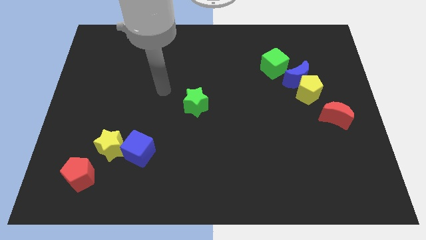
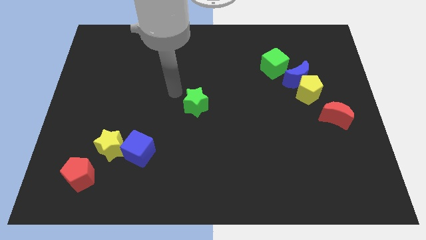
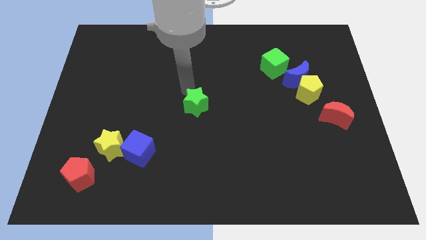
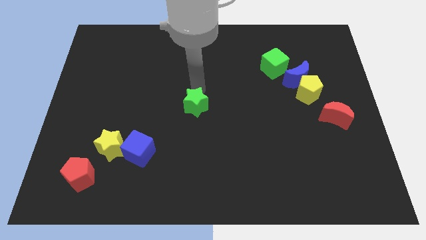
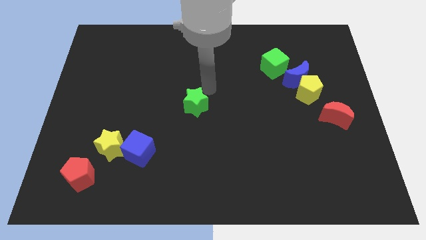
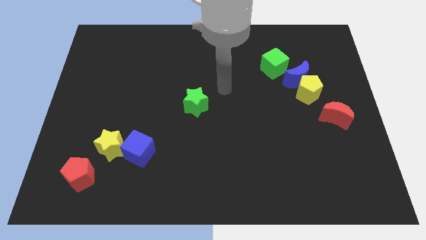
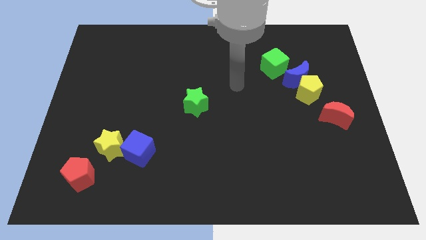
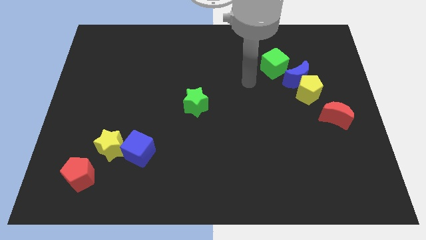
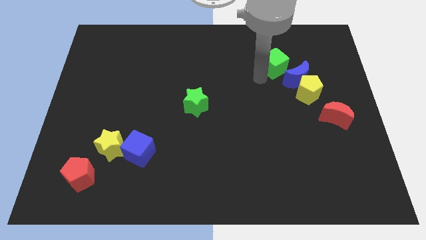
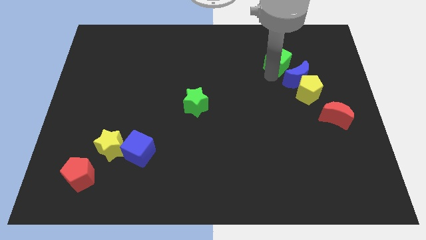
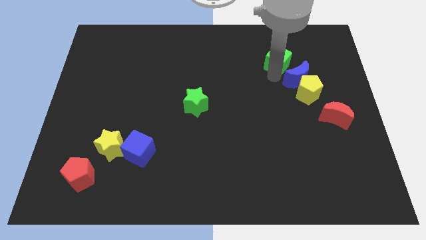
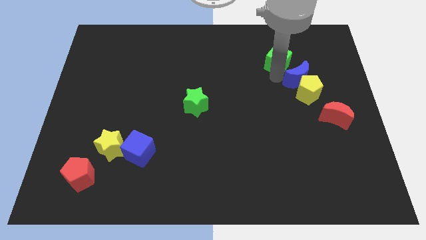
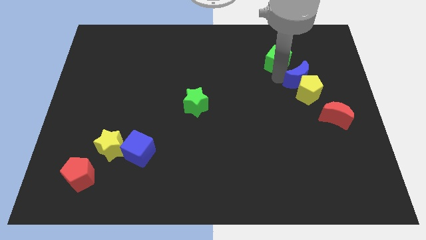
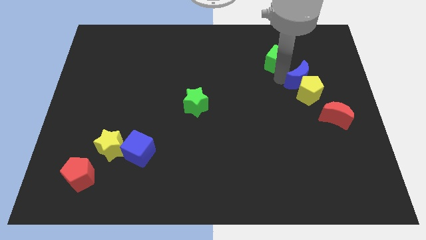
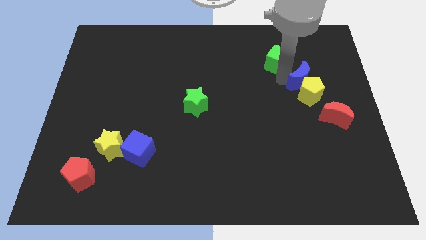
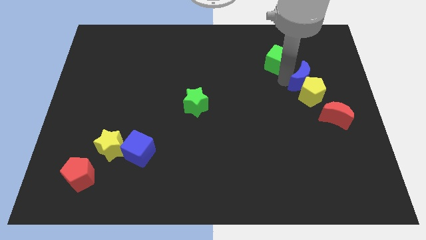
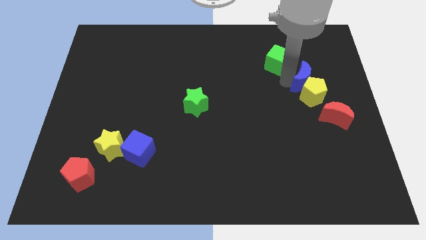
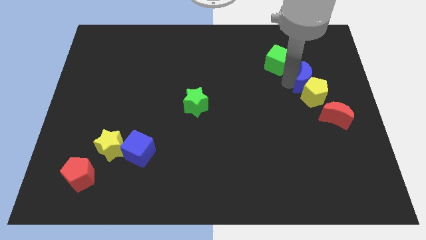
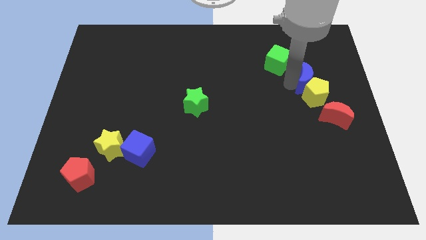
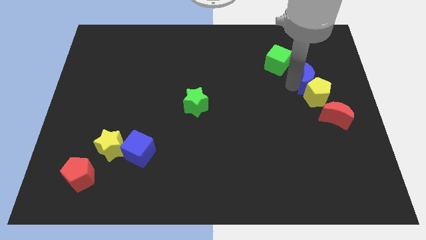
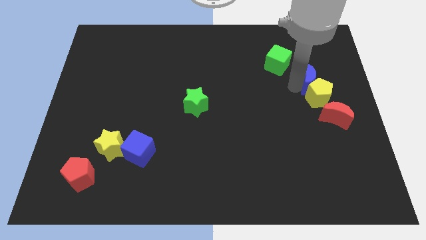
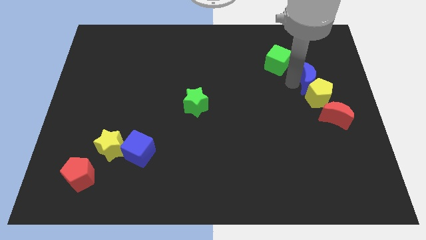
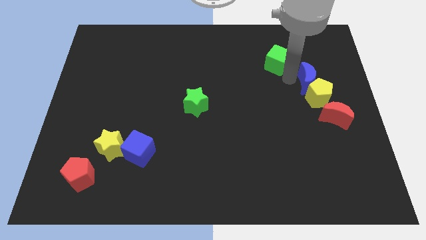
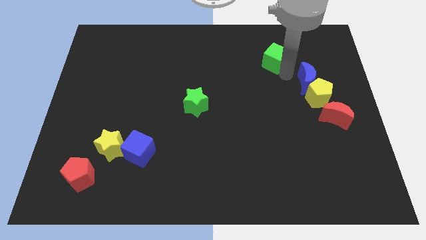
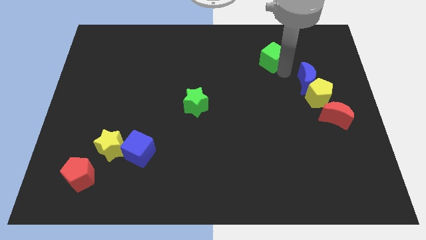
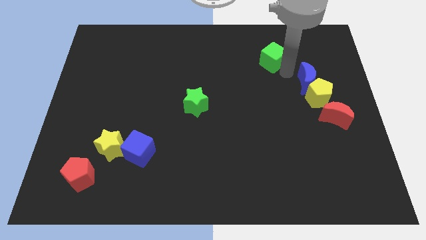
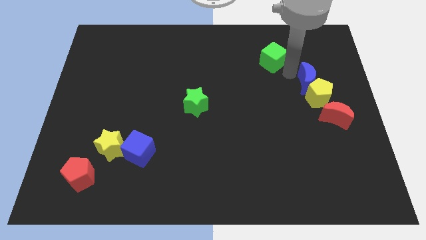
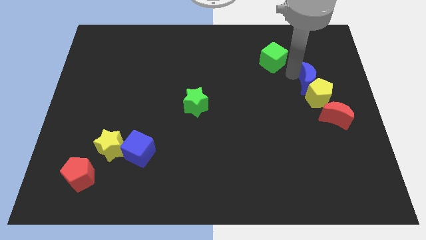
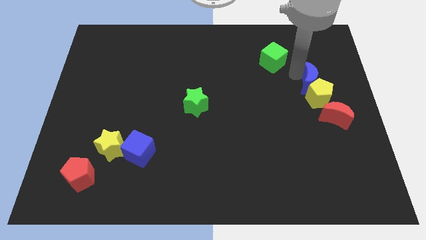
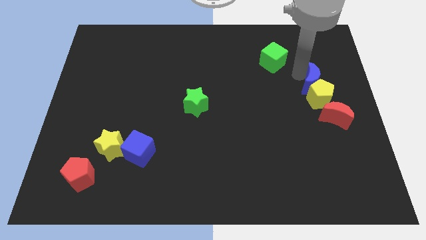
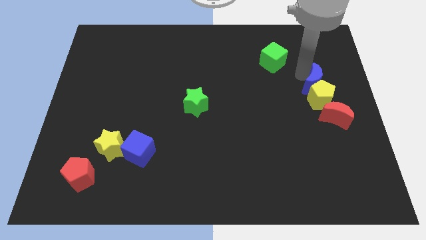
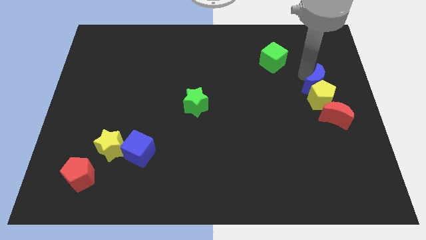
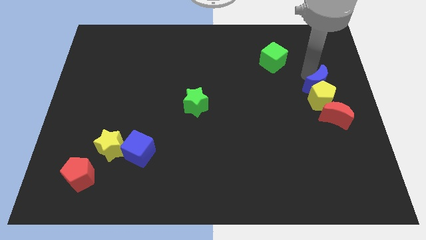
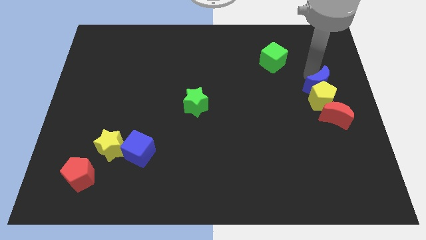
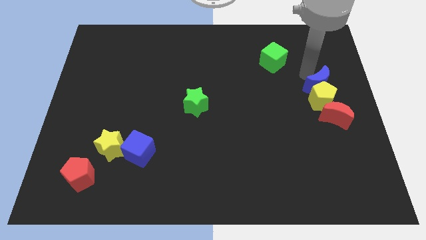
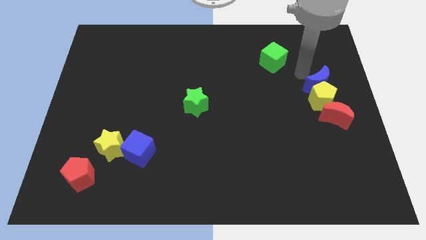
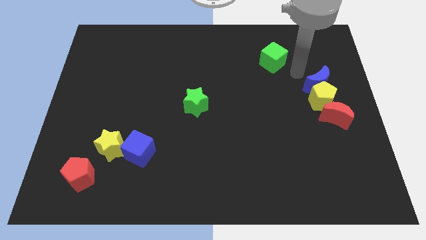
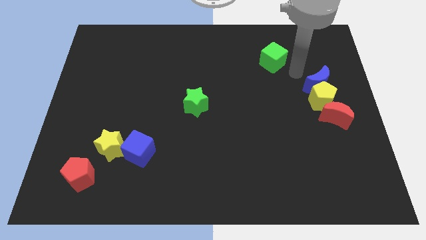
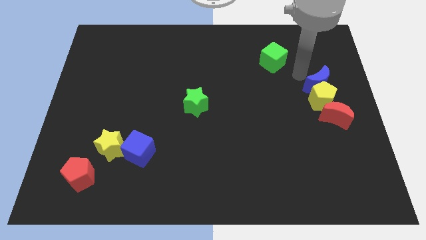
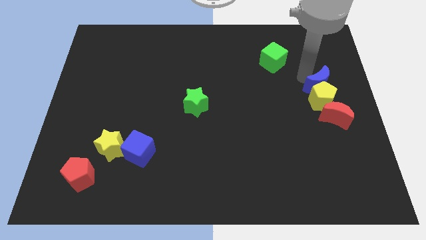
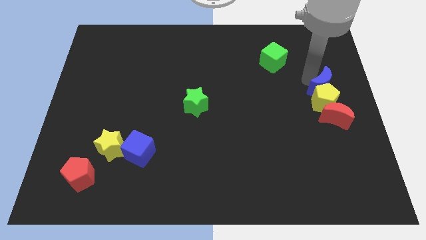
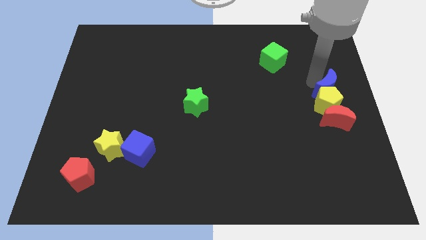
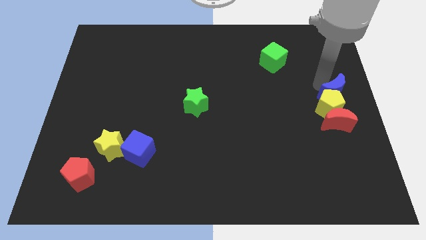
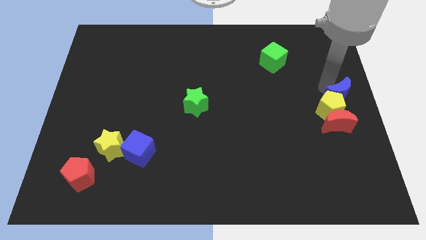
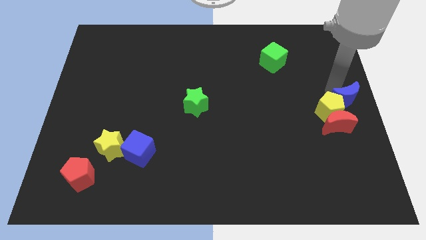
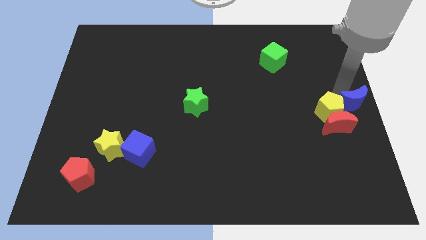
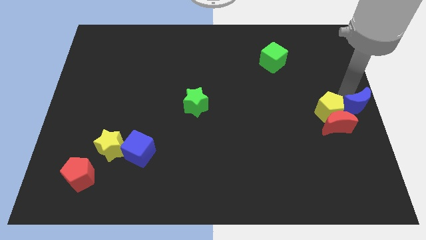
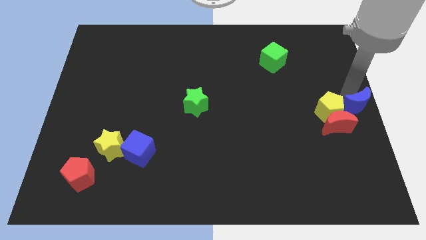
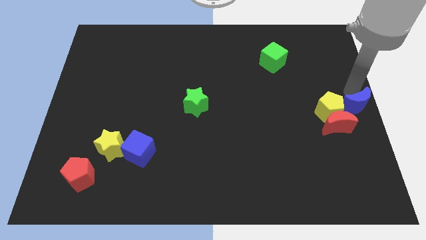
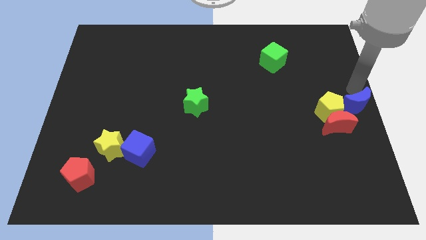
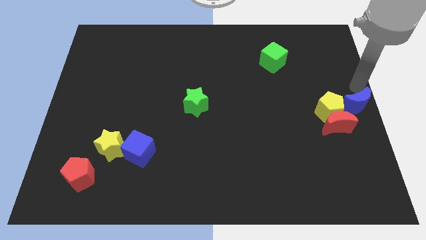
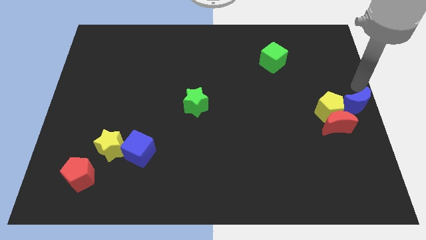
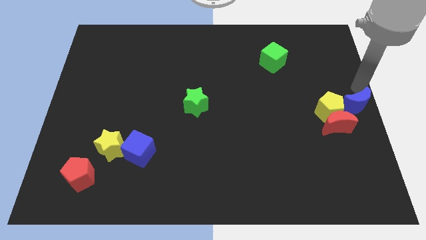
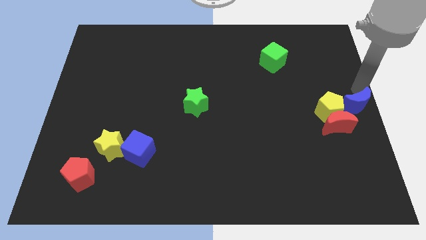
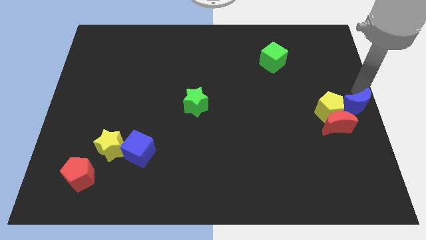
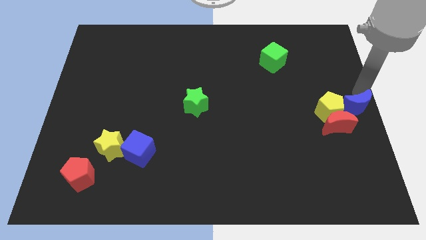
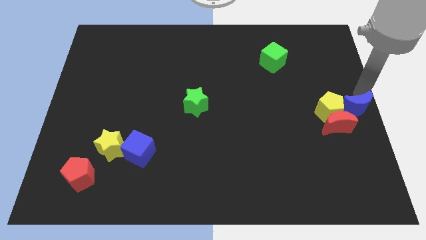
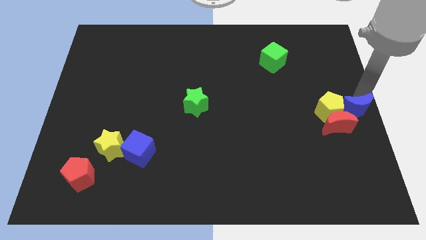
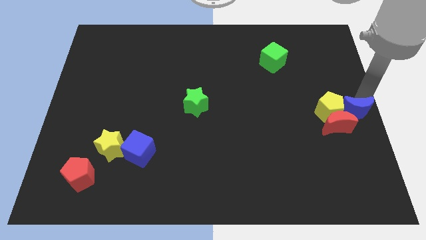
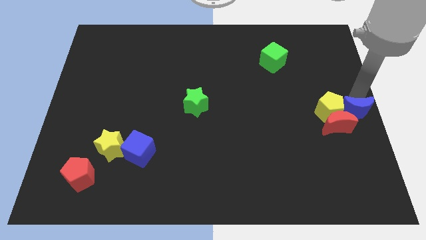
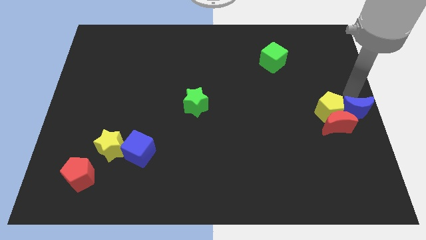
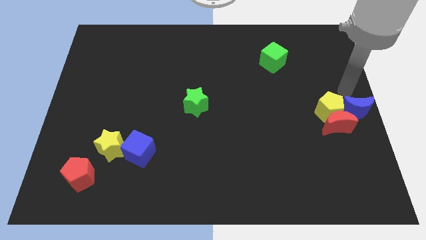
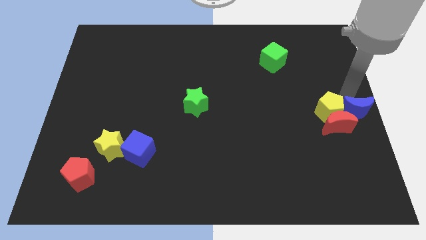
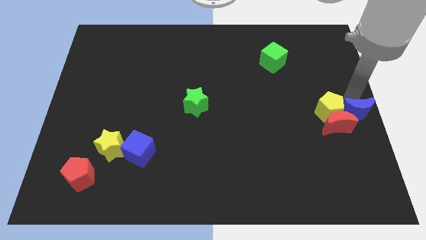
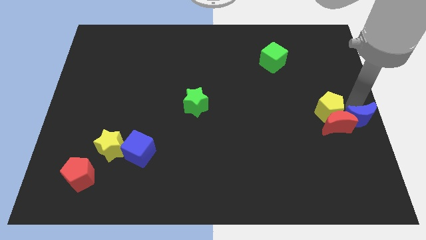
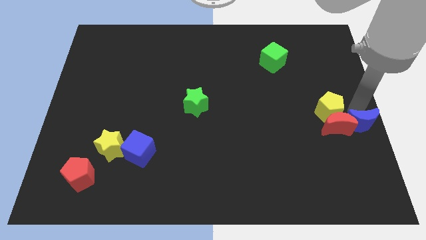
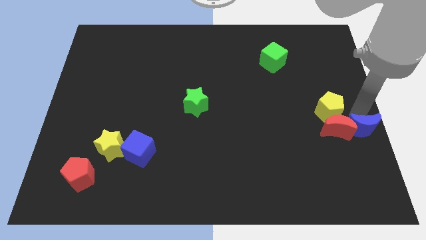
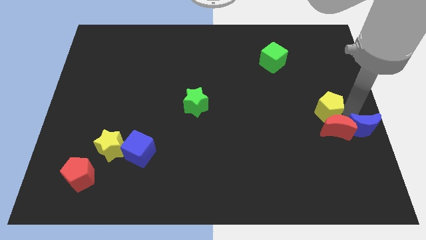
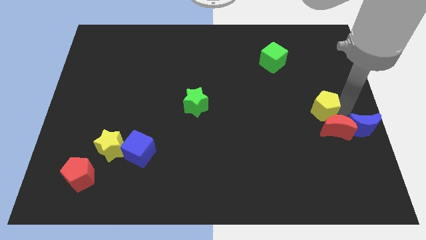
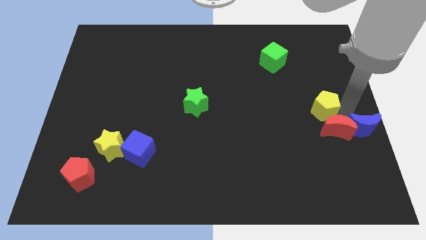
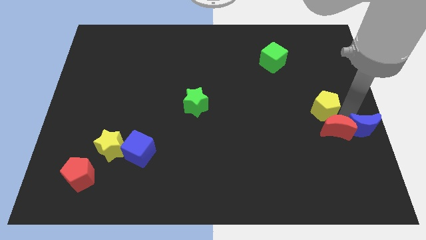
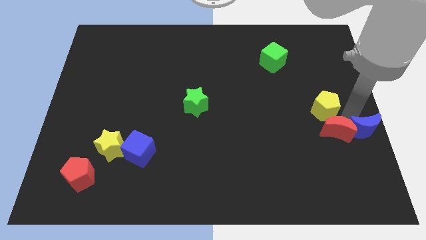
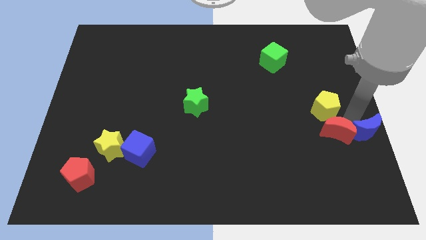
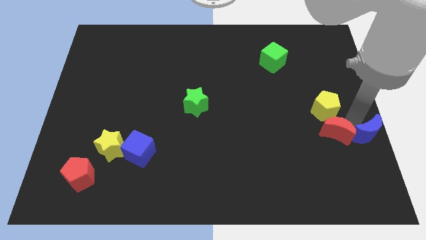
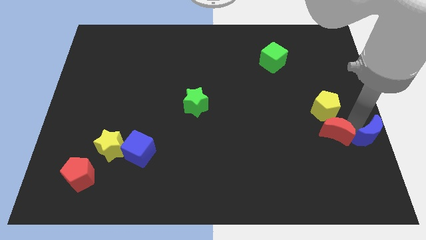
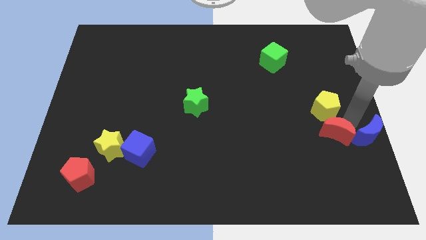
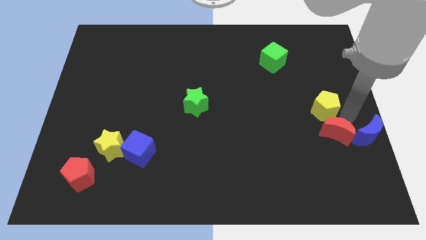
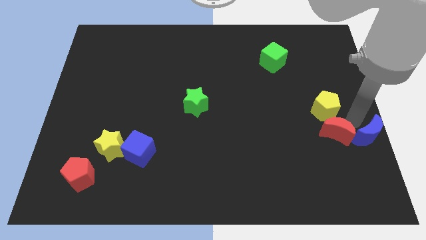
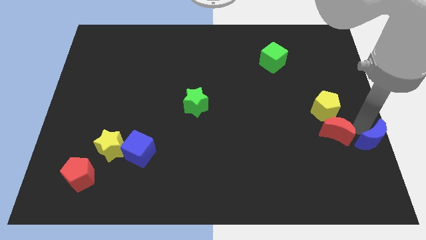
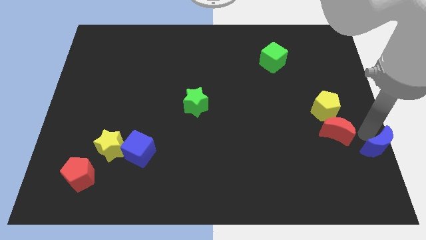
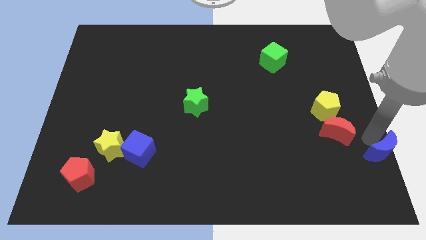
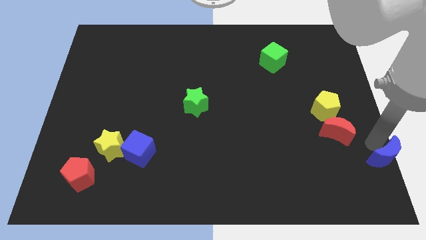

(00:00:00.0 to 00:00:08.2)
put the blue moon to the bottom right of the board
